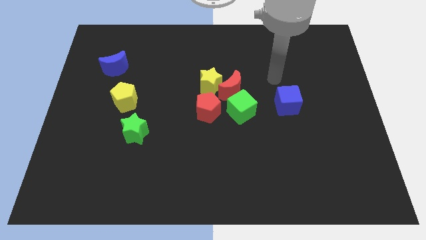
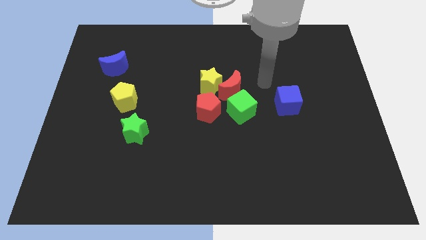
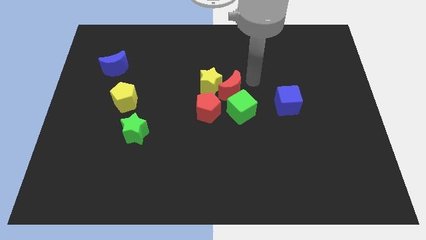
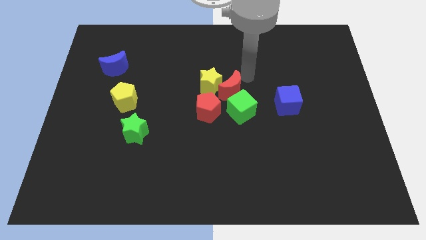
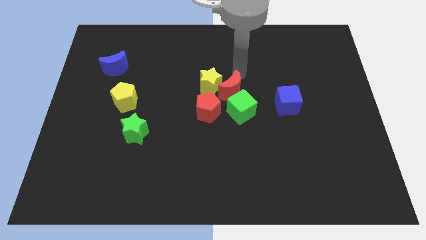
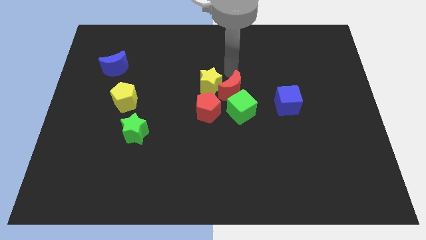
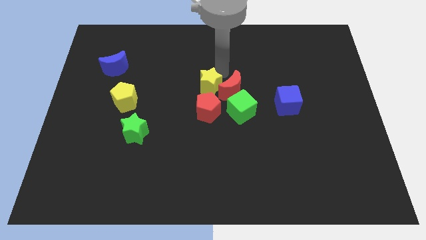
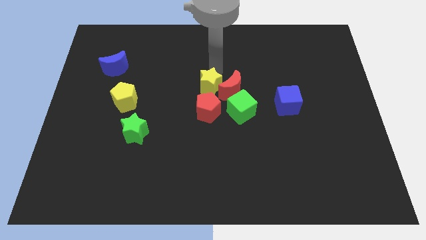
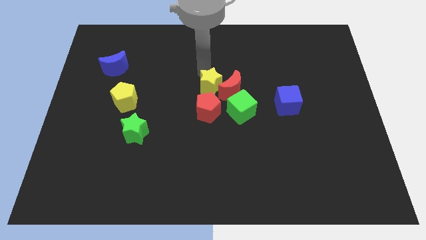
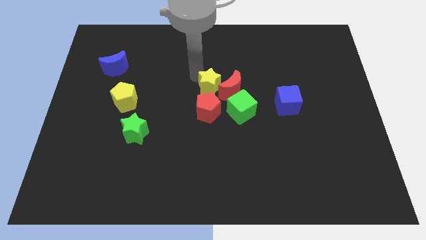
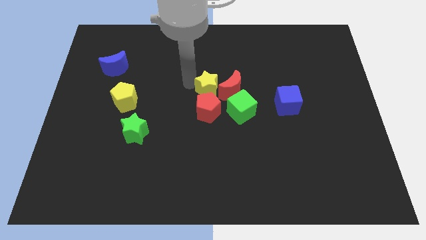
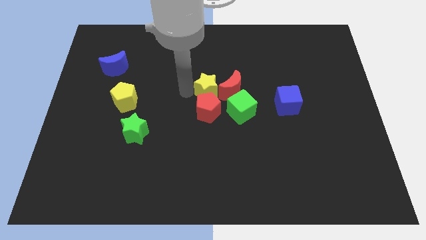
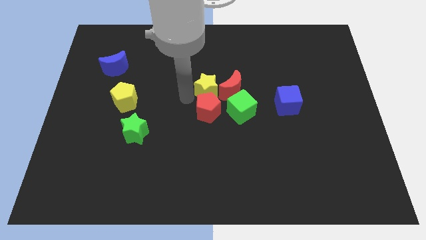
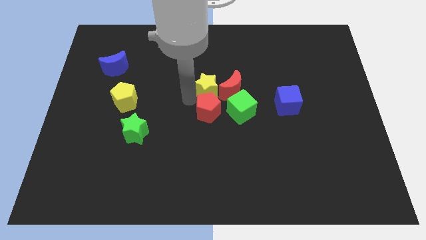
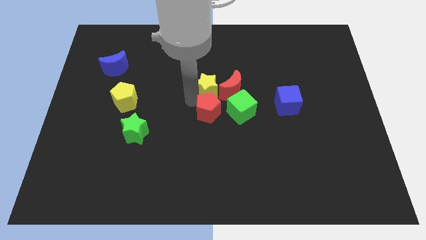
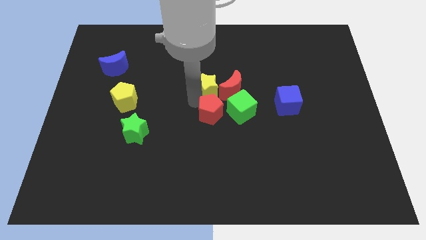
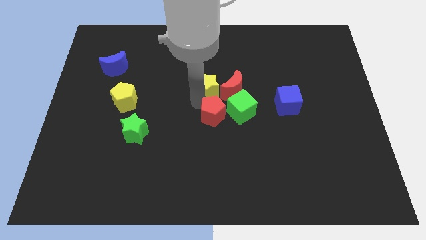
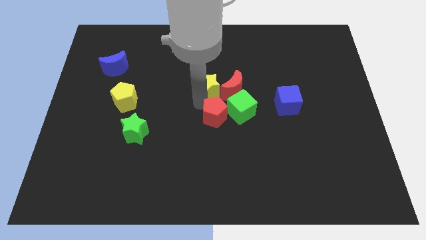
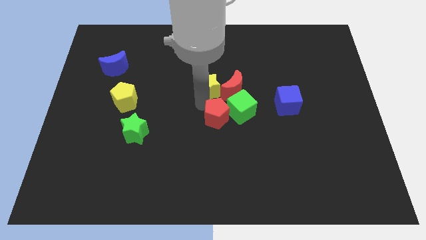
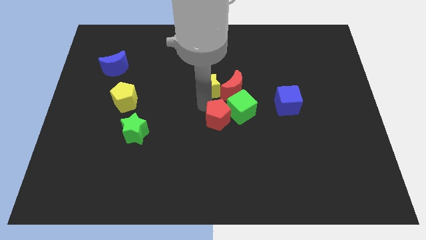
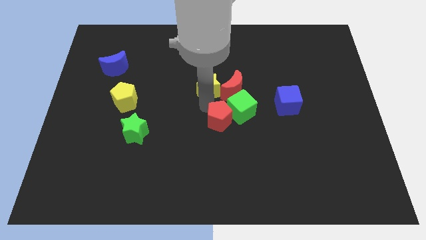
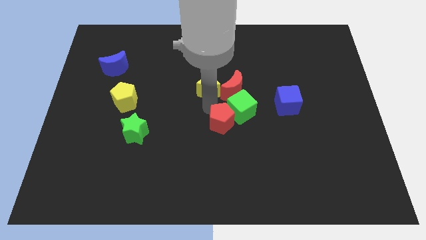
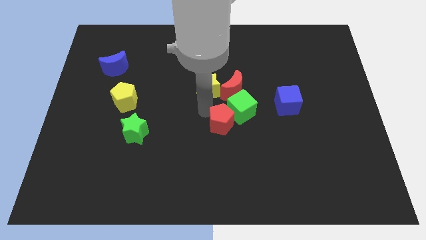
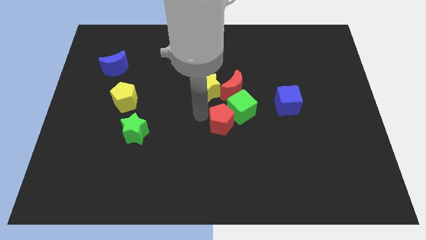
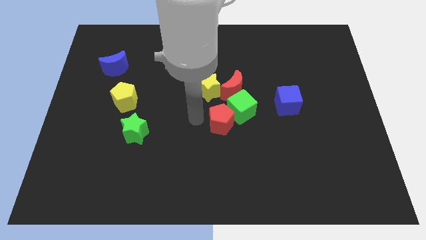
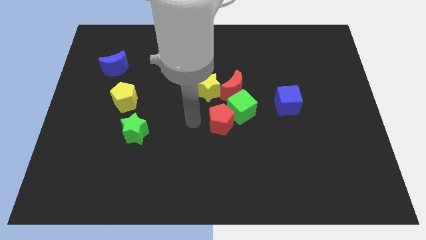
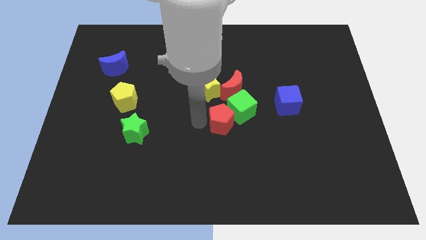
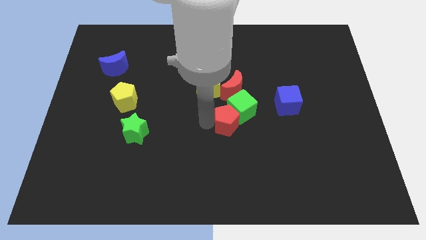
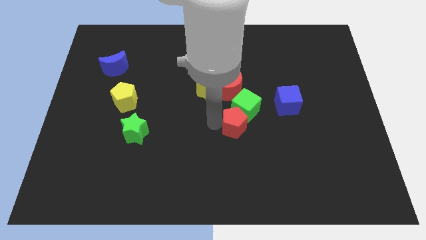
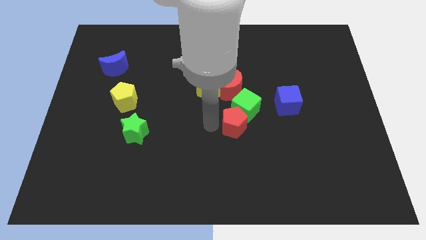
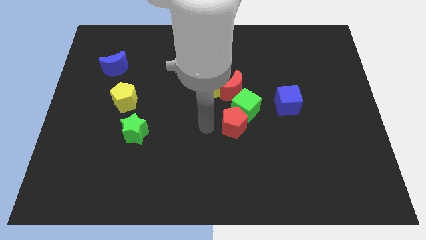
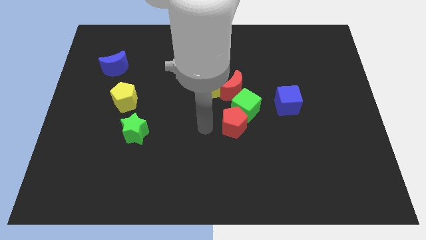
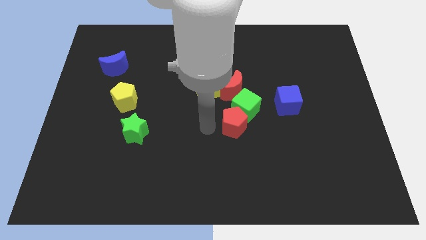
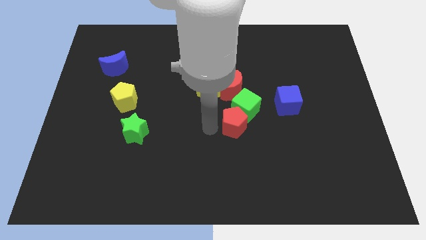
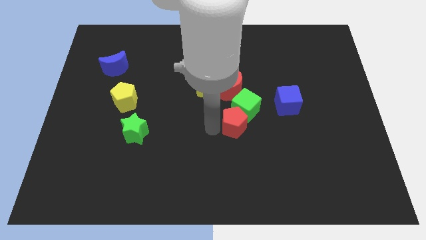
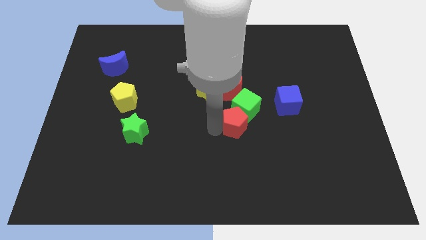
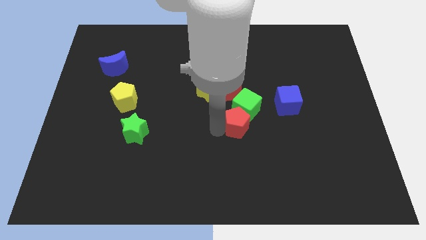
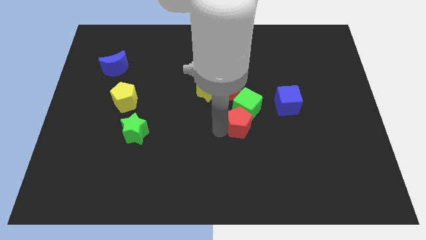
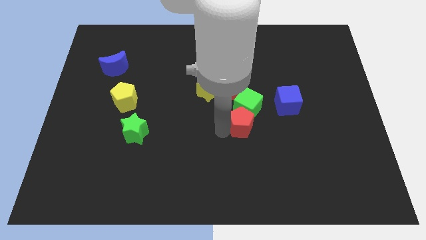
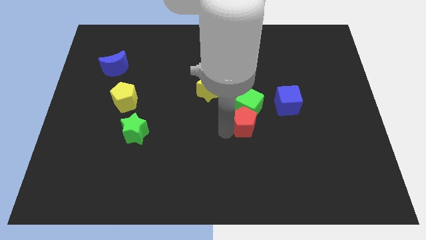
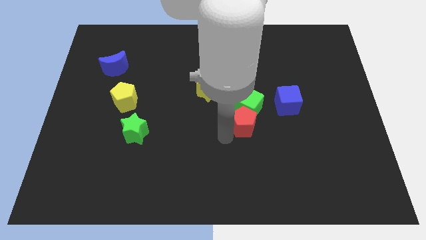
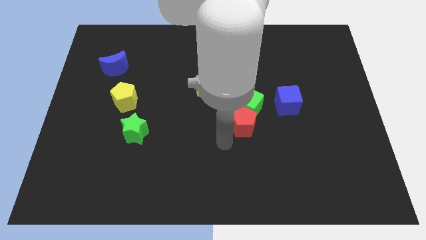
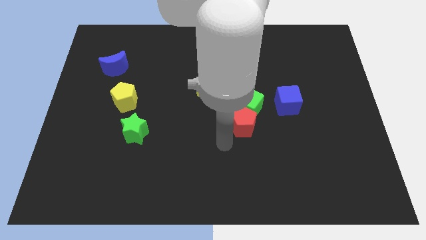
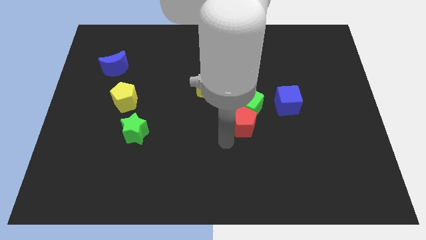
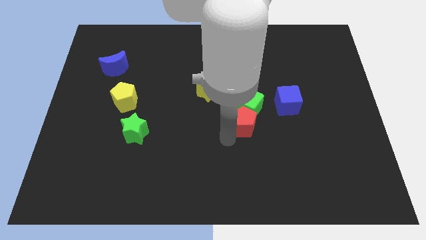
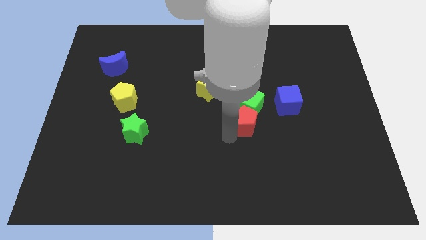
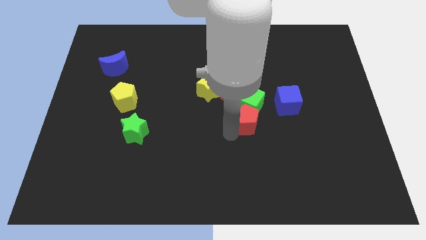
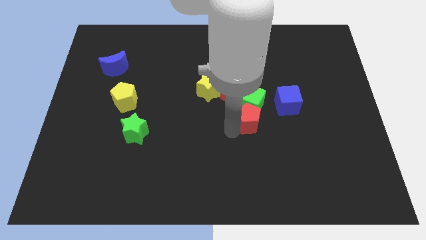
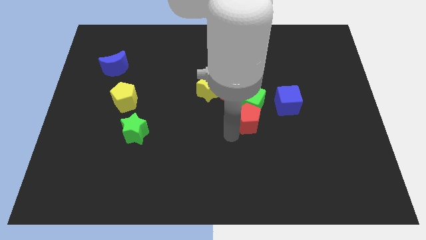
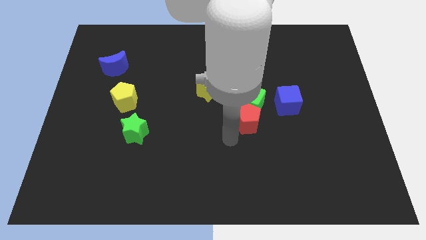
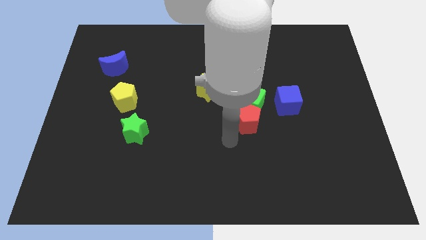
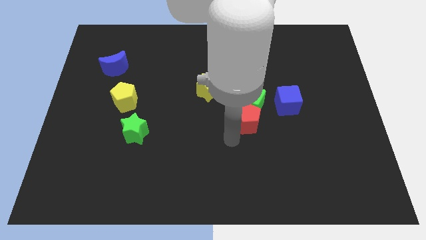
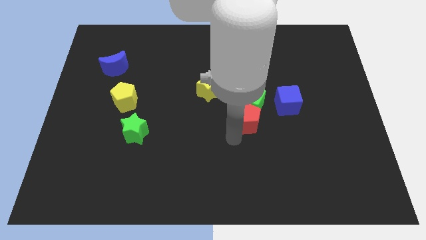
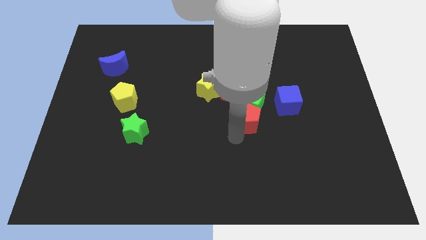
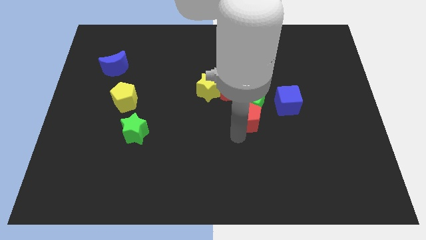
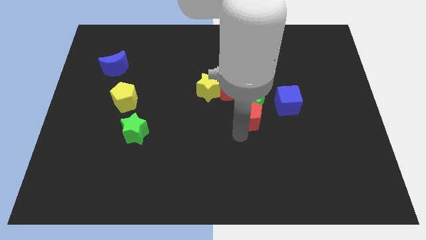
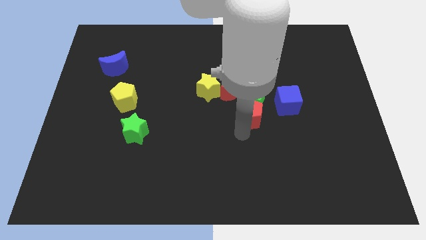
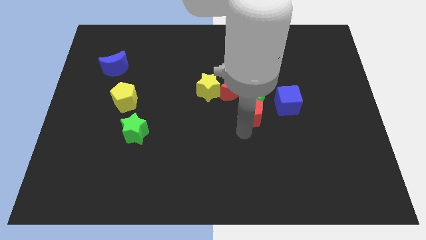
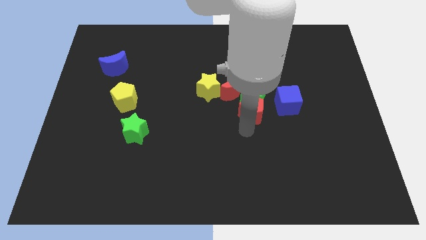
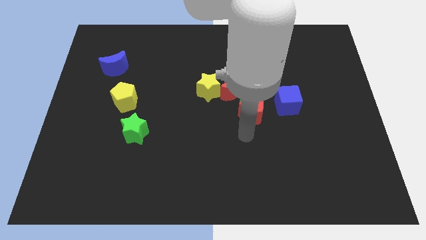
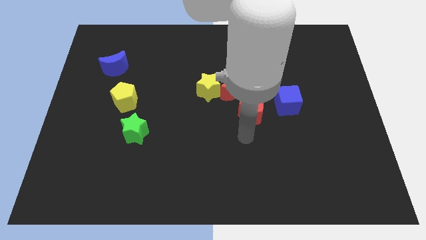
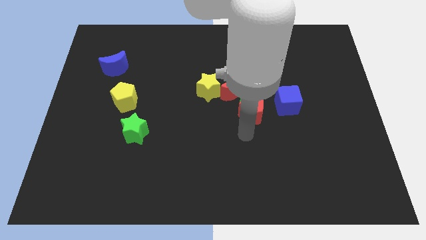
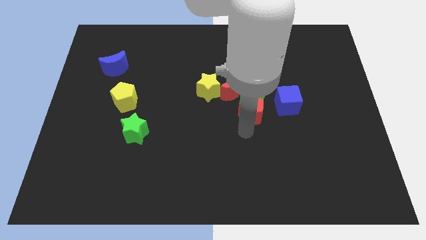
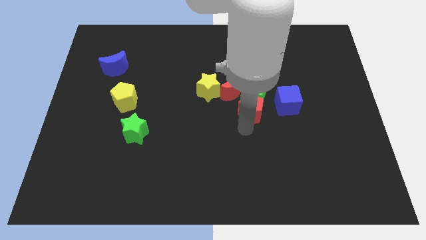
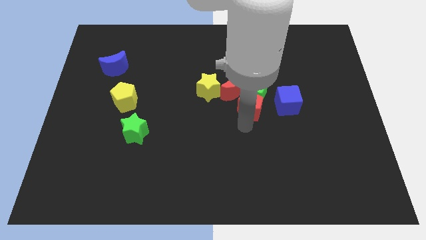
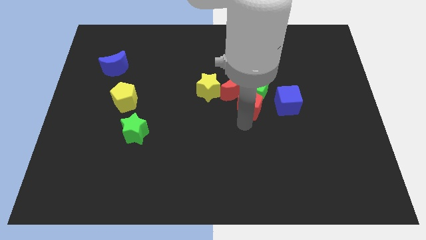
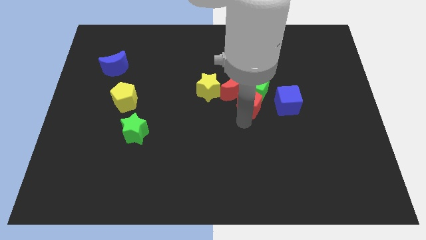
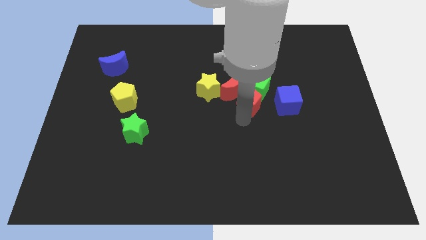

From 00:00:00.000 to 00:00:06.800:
slightly push the red pentagon diagonally upwards and to the right

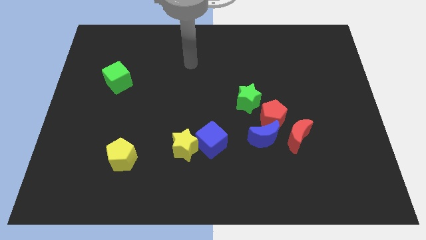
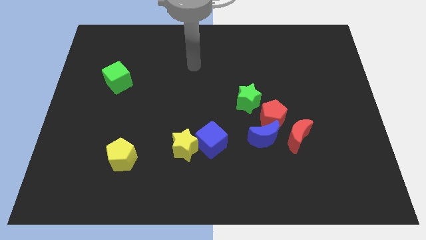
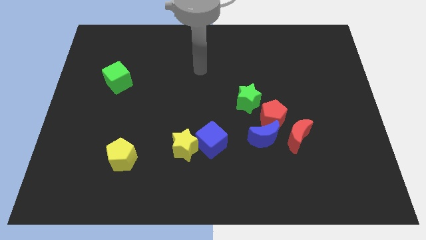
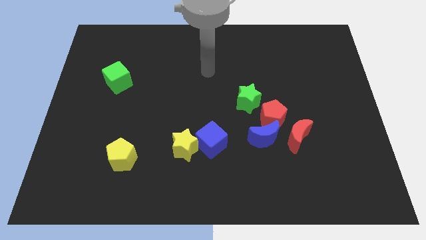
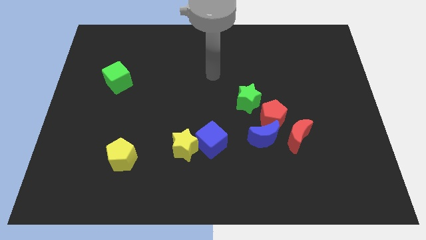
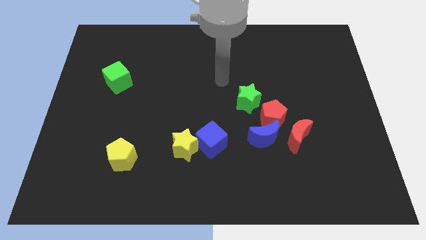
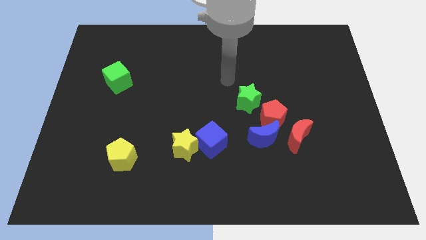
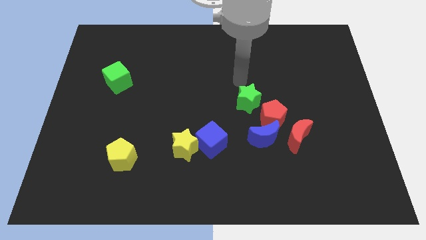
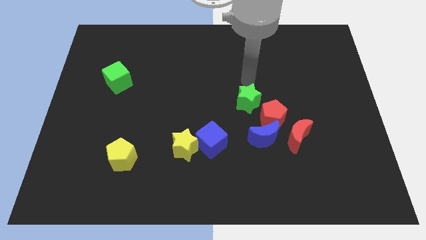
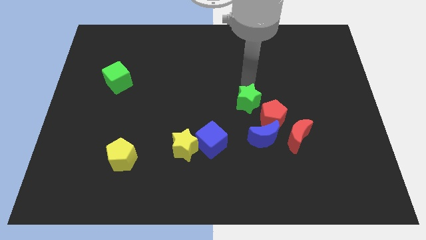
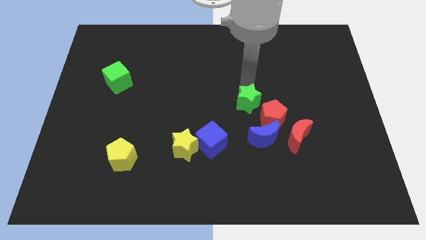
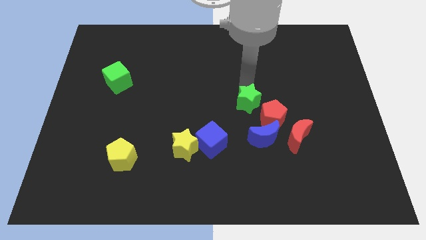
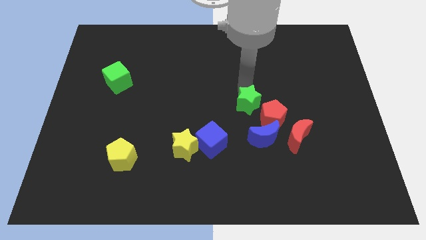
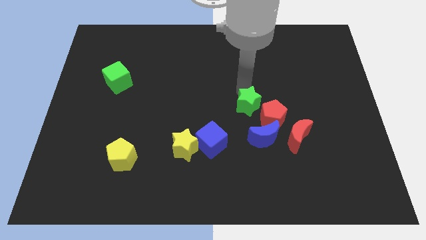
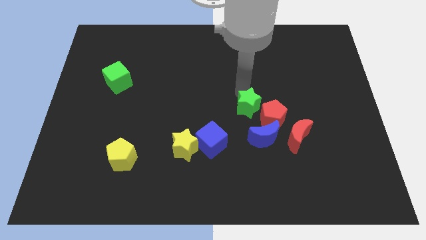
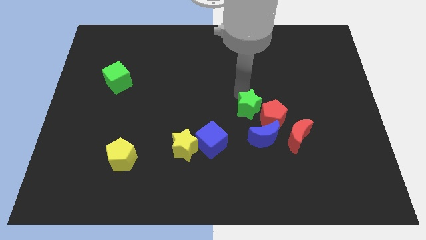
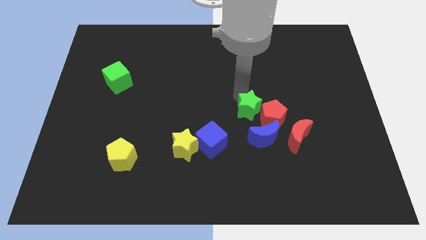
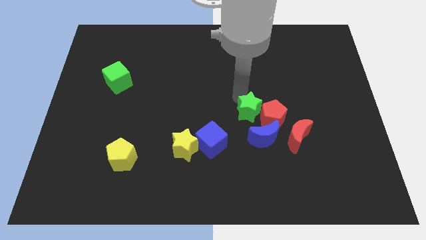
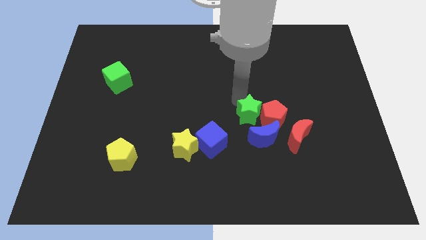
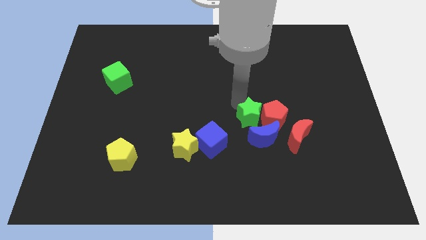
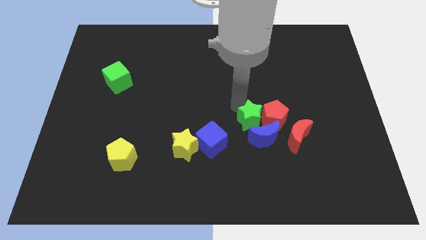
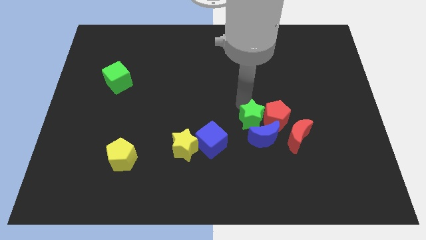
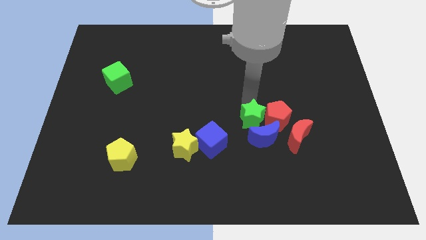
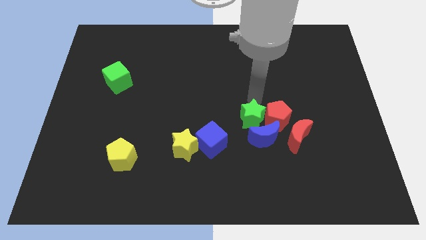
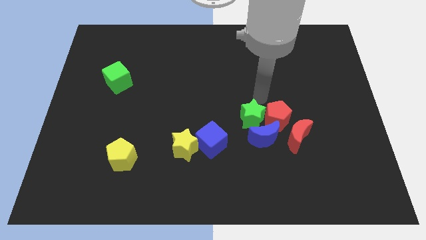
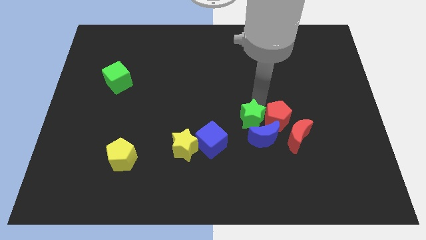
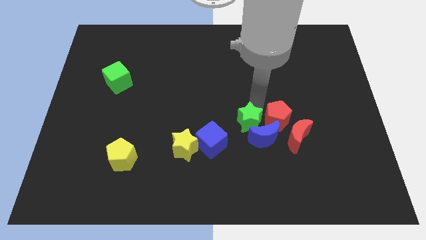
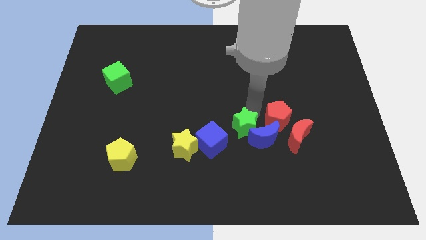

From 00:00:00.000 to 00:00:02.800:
push the green star a little downwards
